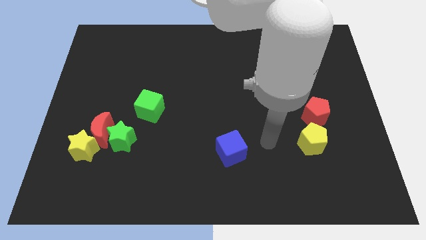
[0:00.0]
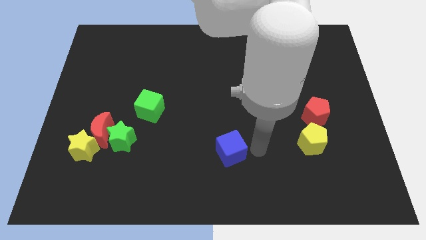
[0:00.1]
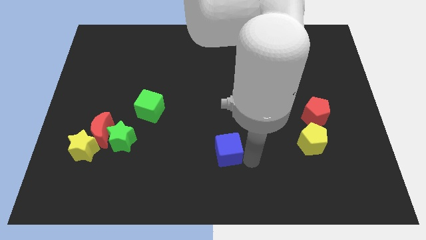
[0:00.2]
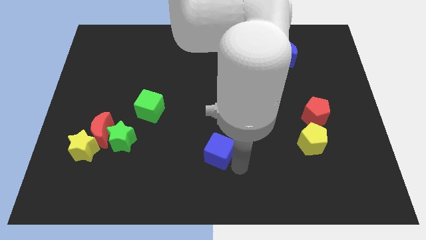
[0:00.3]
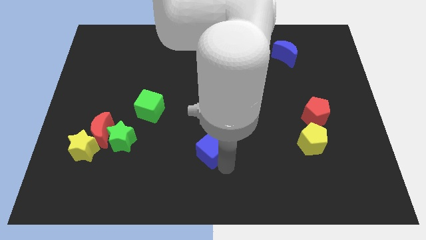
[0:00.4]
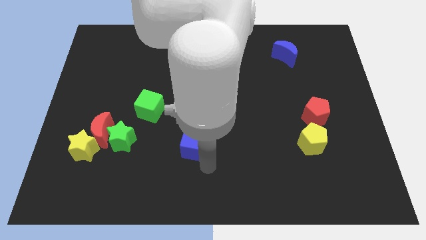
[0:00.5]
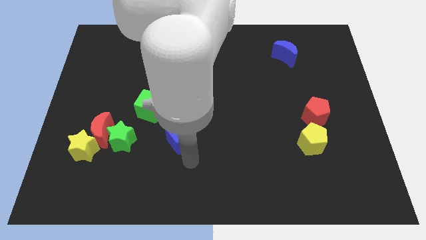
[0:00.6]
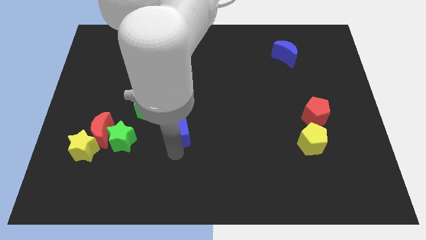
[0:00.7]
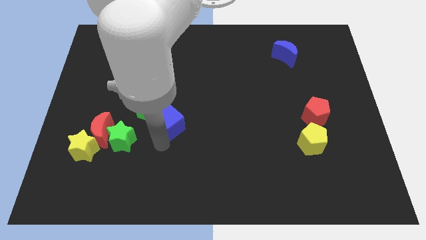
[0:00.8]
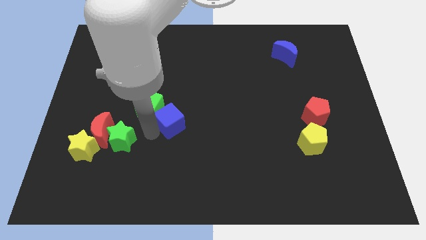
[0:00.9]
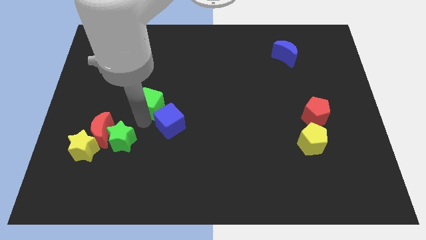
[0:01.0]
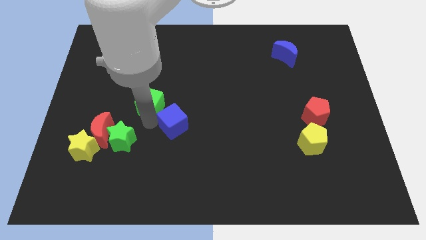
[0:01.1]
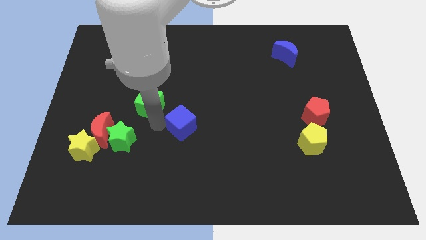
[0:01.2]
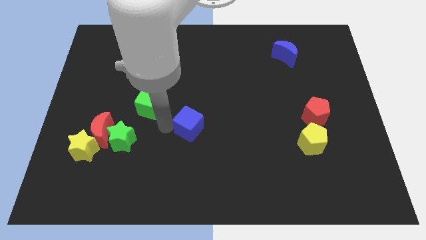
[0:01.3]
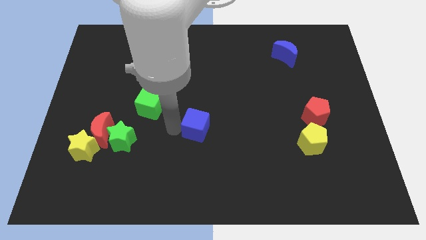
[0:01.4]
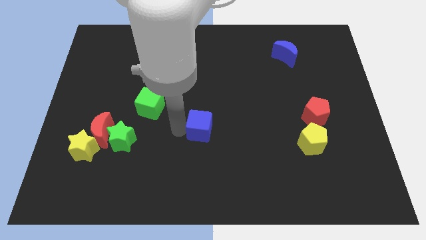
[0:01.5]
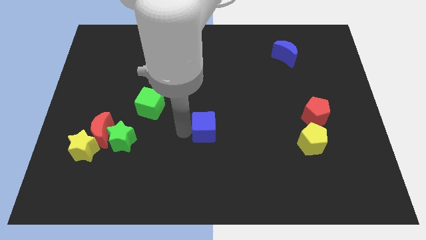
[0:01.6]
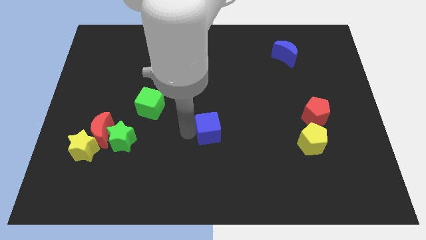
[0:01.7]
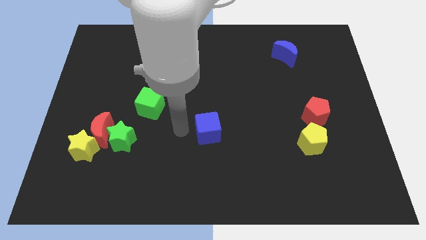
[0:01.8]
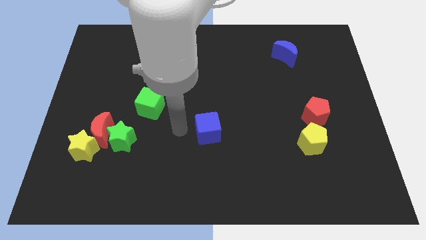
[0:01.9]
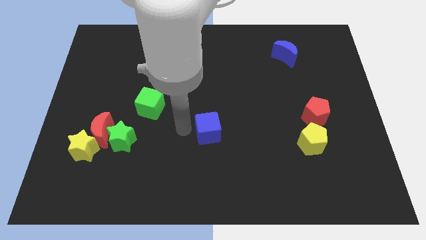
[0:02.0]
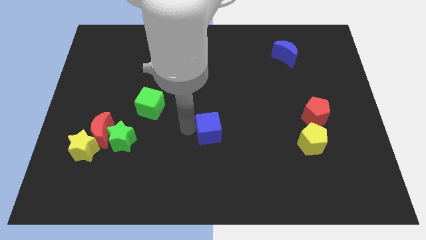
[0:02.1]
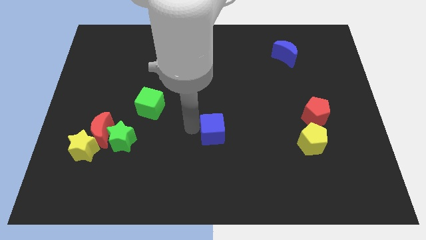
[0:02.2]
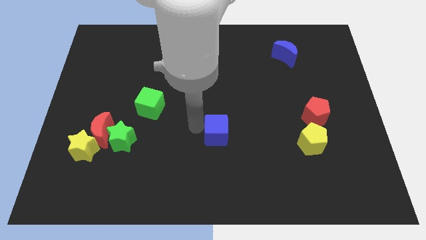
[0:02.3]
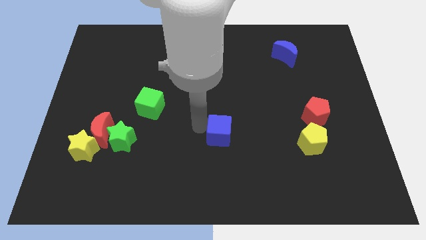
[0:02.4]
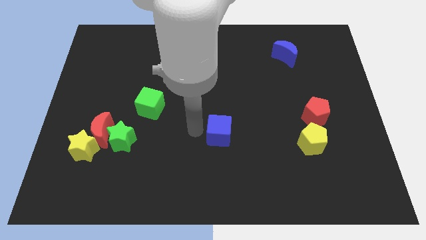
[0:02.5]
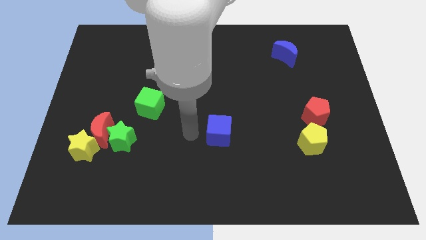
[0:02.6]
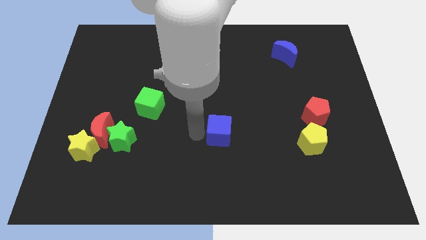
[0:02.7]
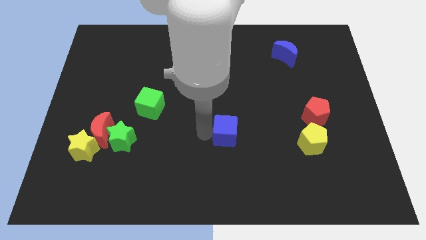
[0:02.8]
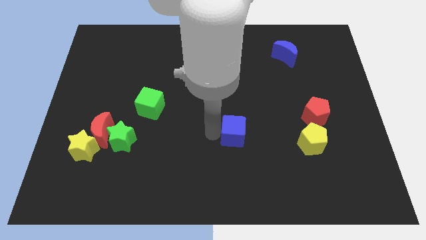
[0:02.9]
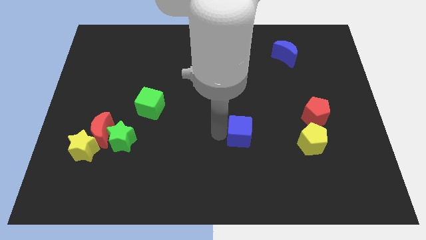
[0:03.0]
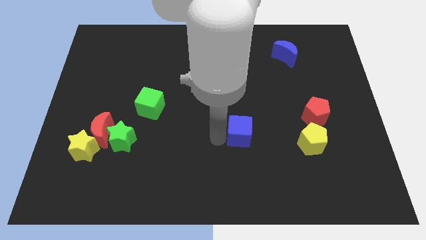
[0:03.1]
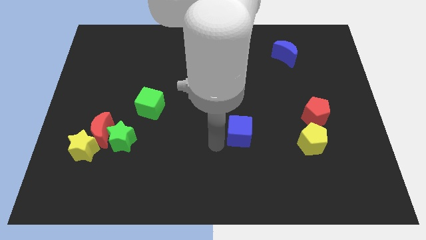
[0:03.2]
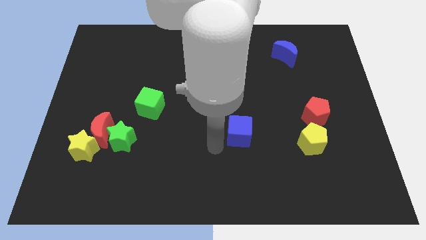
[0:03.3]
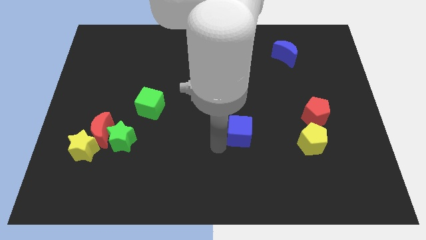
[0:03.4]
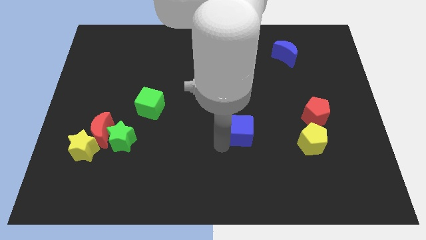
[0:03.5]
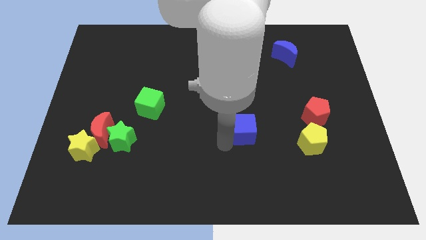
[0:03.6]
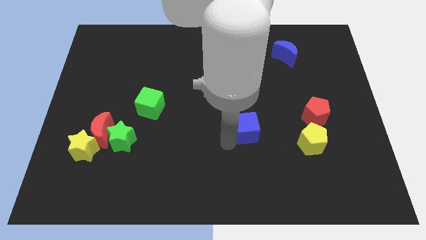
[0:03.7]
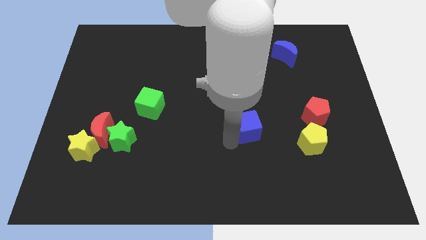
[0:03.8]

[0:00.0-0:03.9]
push the blue cube a bit upwards and to the right

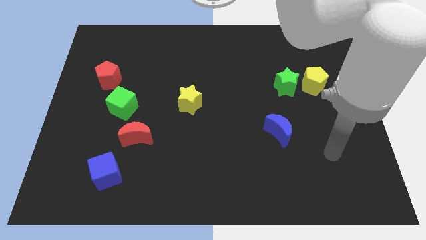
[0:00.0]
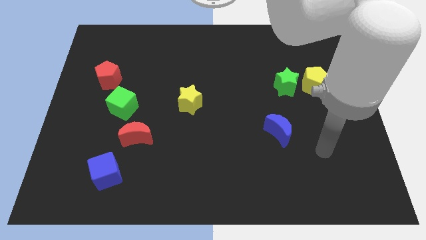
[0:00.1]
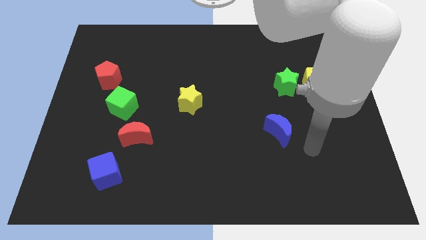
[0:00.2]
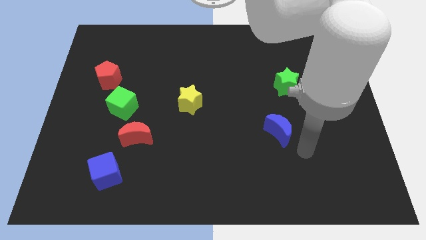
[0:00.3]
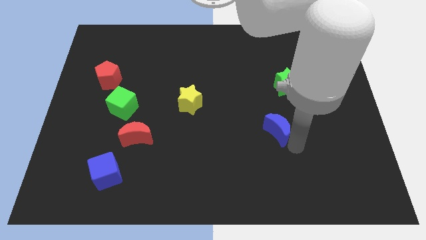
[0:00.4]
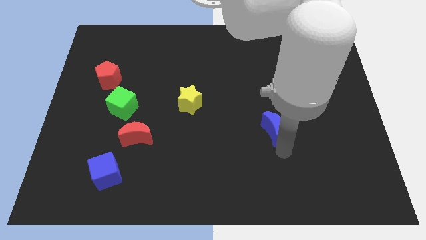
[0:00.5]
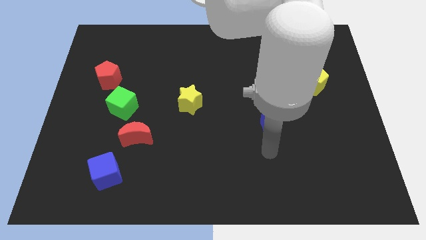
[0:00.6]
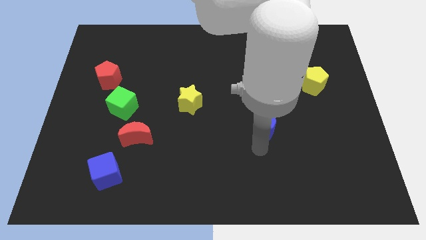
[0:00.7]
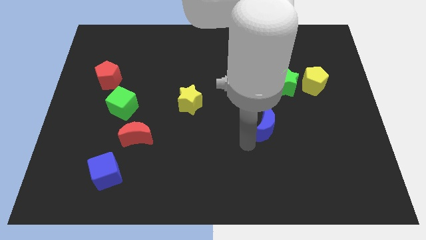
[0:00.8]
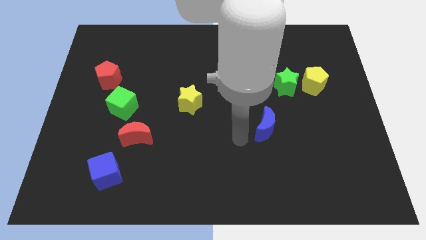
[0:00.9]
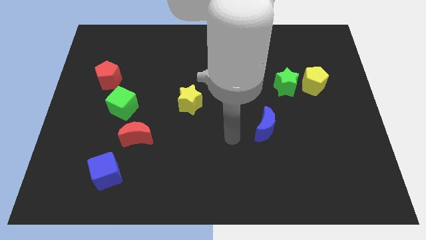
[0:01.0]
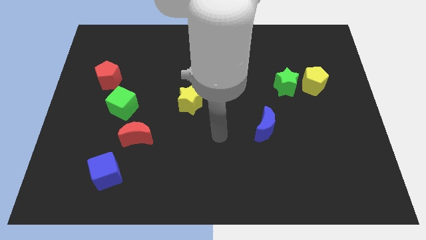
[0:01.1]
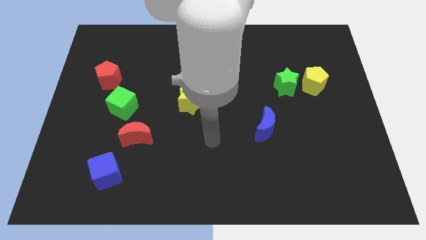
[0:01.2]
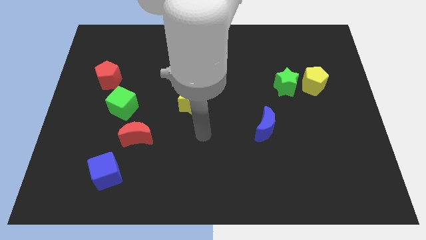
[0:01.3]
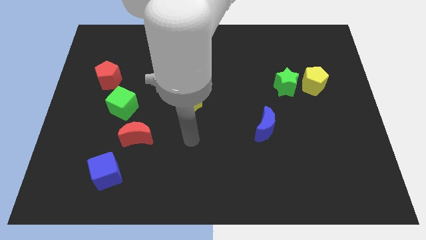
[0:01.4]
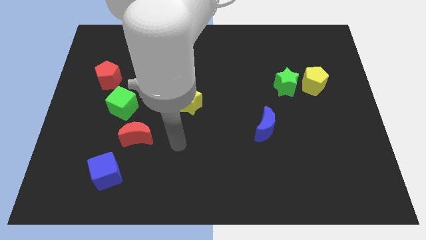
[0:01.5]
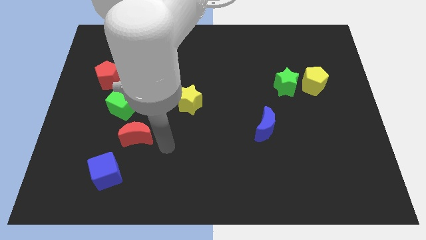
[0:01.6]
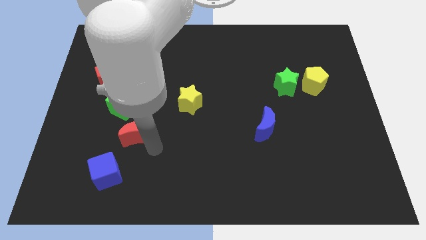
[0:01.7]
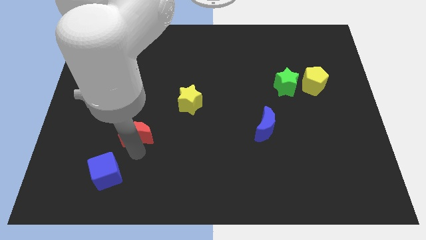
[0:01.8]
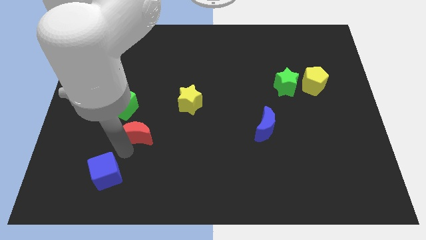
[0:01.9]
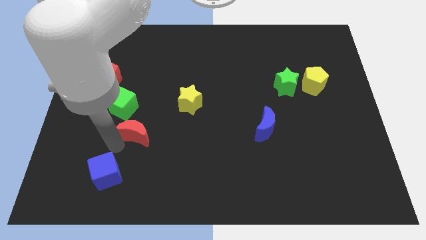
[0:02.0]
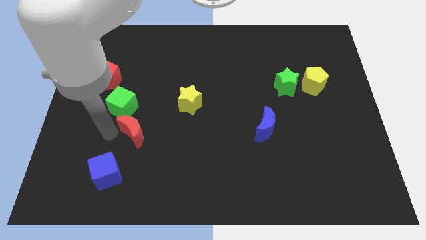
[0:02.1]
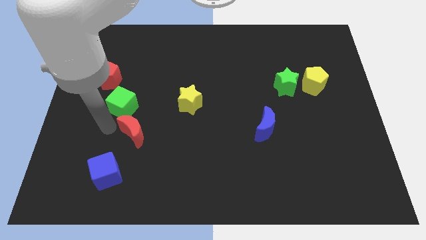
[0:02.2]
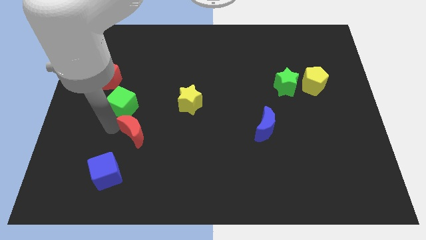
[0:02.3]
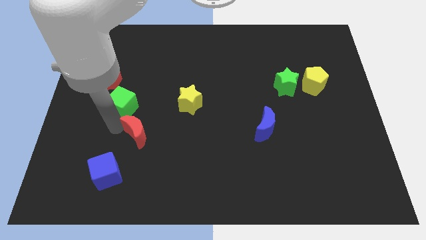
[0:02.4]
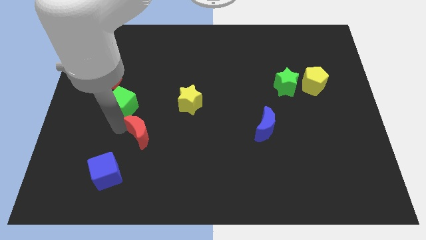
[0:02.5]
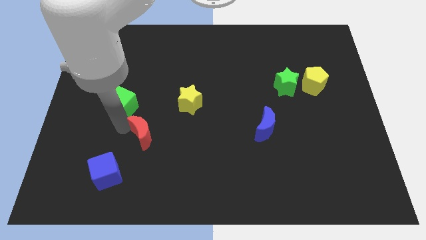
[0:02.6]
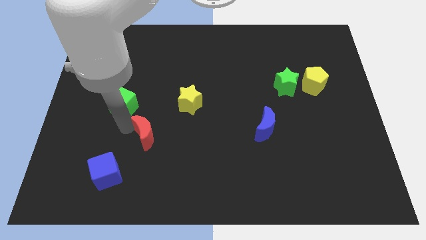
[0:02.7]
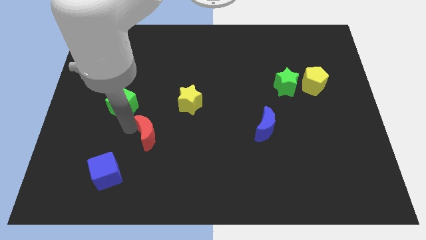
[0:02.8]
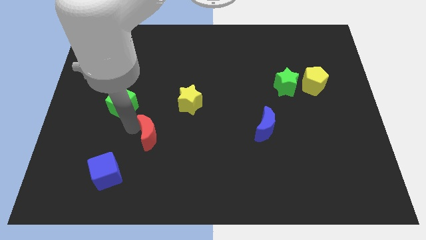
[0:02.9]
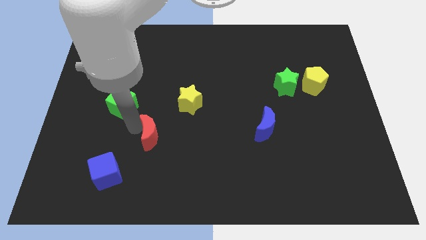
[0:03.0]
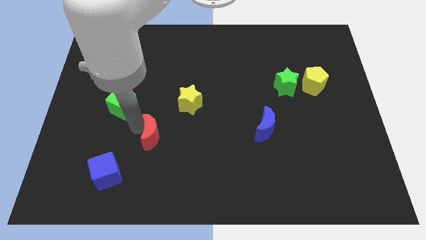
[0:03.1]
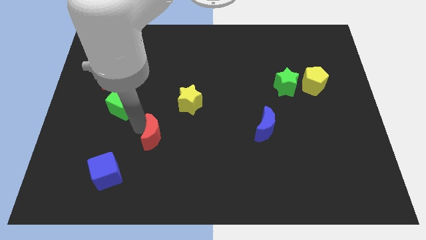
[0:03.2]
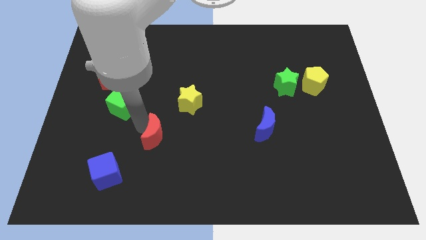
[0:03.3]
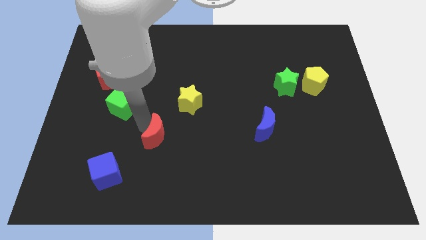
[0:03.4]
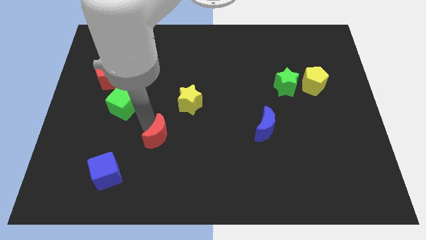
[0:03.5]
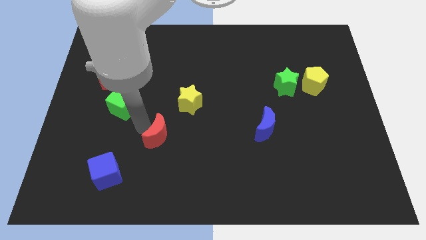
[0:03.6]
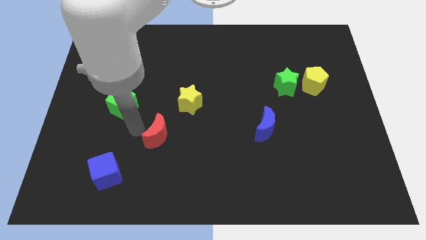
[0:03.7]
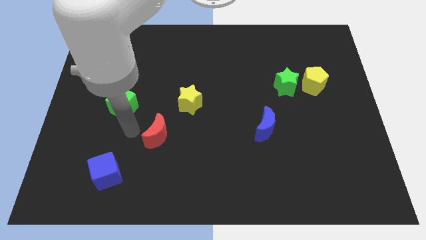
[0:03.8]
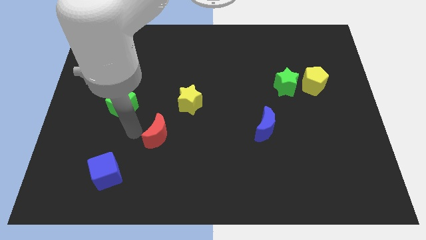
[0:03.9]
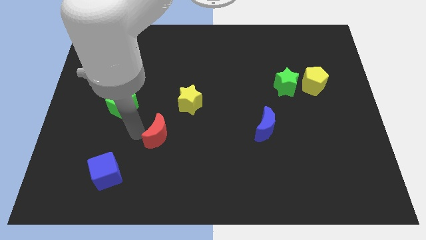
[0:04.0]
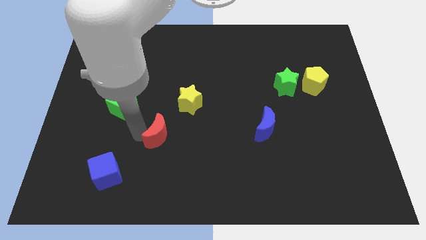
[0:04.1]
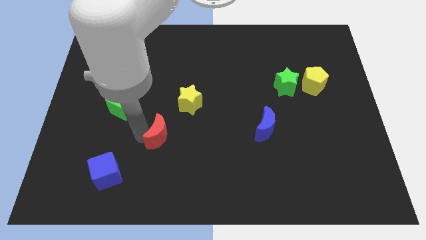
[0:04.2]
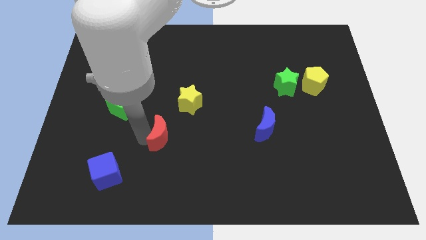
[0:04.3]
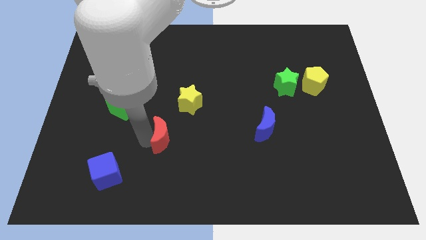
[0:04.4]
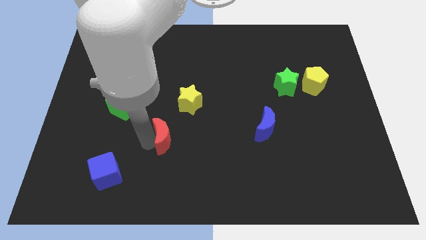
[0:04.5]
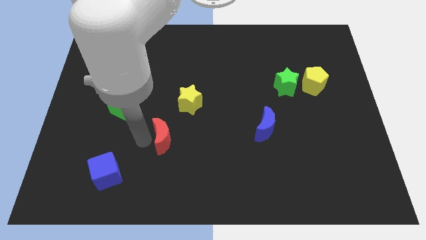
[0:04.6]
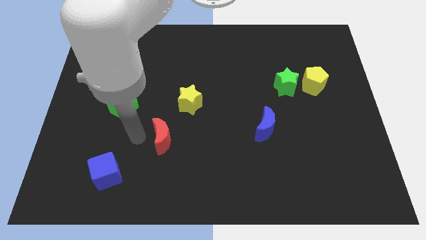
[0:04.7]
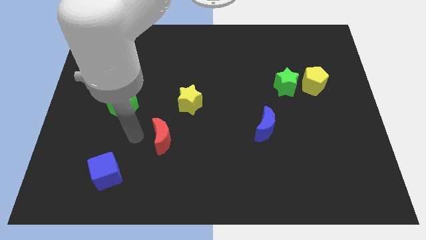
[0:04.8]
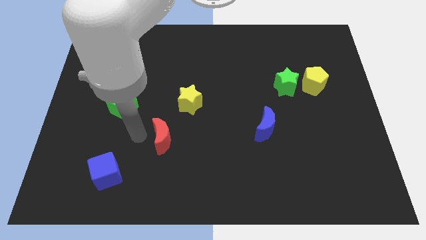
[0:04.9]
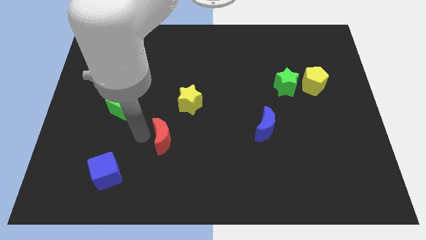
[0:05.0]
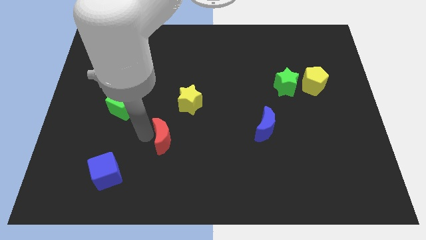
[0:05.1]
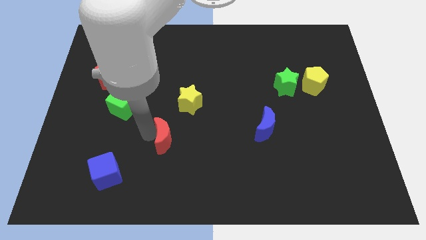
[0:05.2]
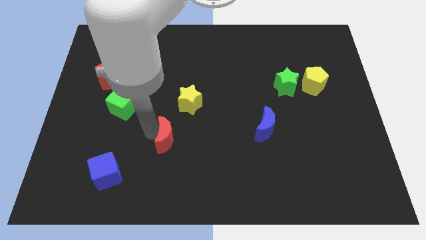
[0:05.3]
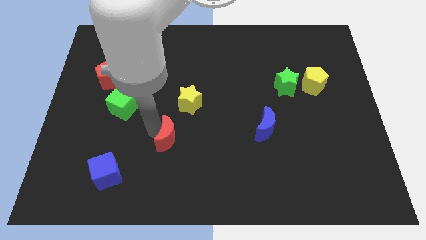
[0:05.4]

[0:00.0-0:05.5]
move the red moon a little bit to the right
